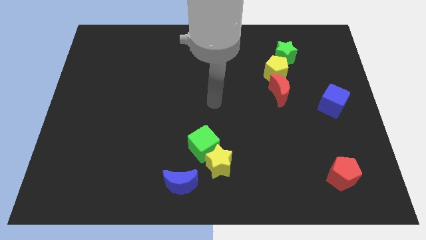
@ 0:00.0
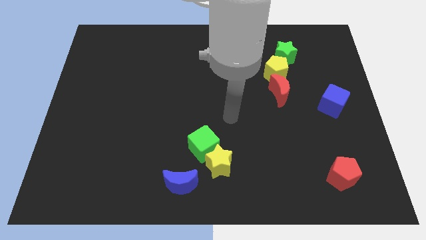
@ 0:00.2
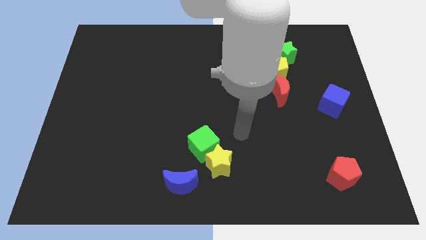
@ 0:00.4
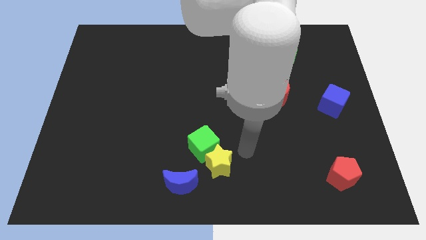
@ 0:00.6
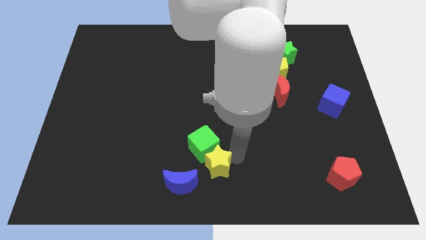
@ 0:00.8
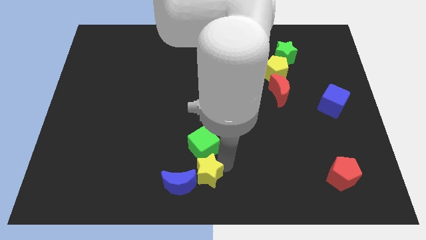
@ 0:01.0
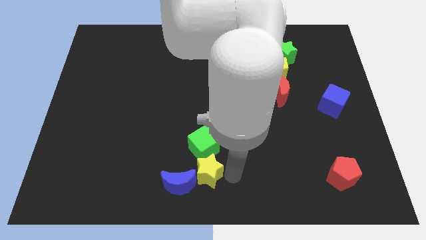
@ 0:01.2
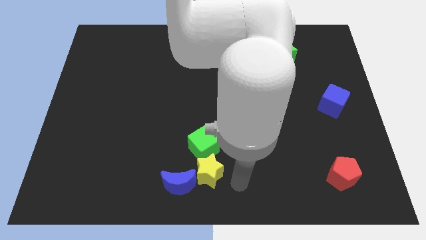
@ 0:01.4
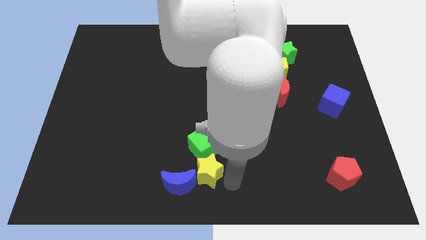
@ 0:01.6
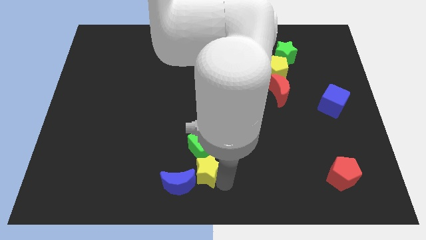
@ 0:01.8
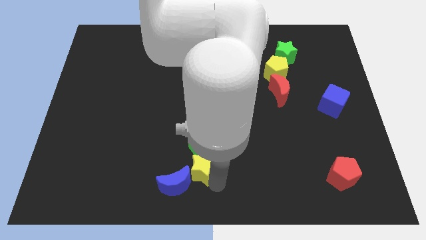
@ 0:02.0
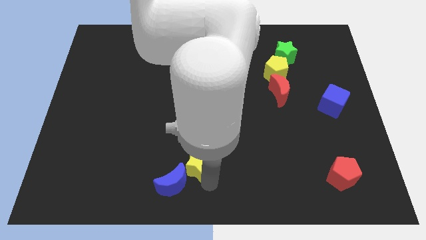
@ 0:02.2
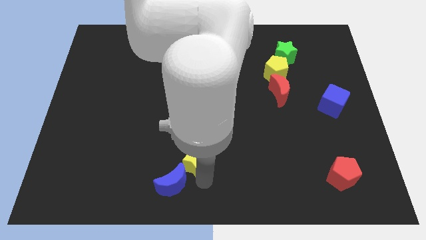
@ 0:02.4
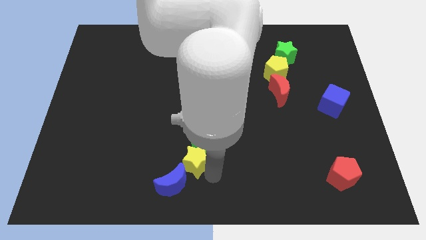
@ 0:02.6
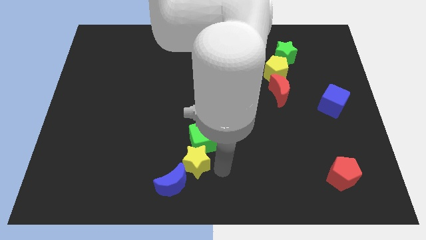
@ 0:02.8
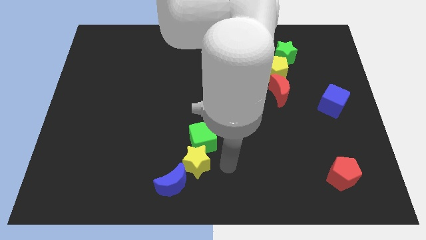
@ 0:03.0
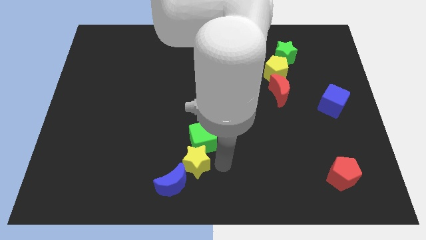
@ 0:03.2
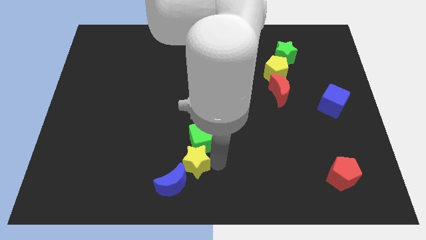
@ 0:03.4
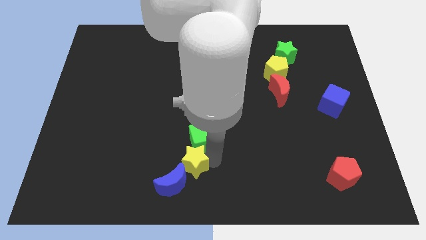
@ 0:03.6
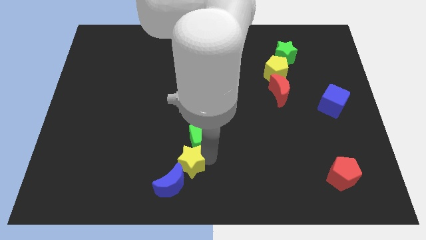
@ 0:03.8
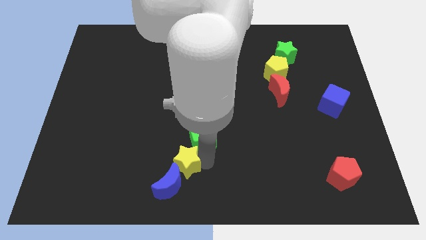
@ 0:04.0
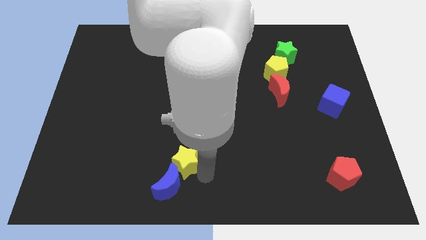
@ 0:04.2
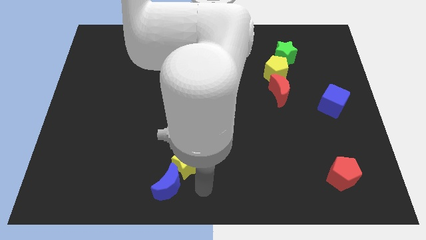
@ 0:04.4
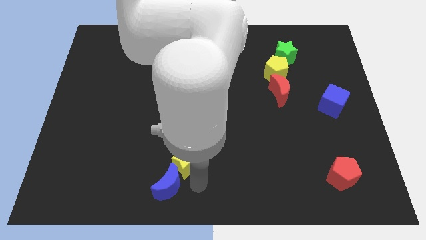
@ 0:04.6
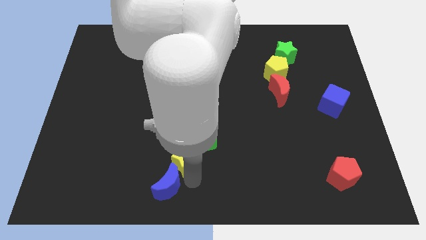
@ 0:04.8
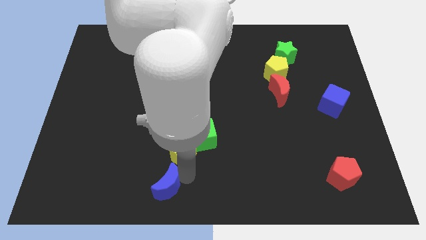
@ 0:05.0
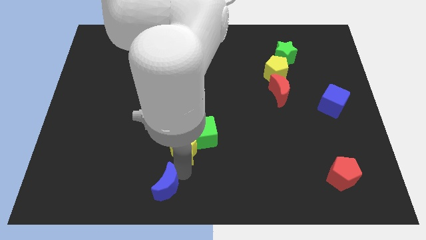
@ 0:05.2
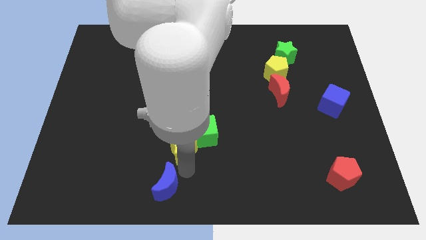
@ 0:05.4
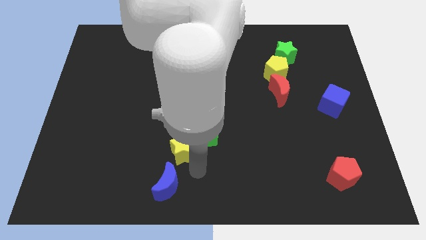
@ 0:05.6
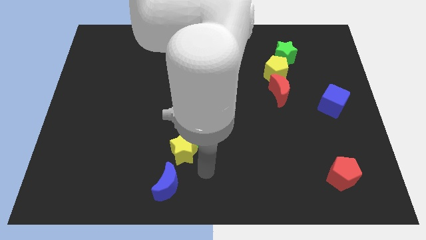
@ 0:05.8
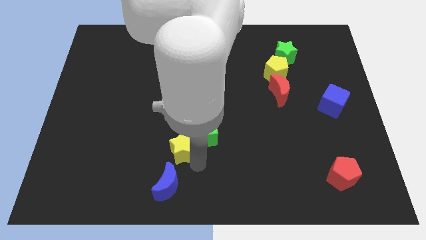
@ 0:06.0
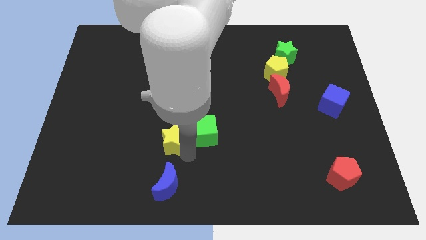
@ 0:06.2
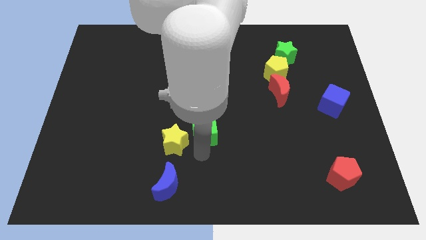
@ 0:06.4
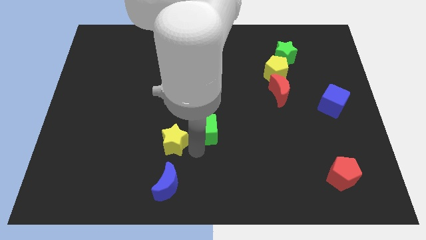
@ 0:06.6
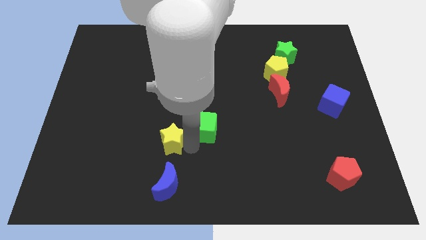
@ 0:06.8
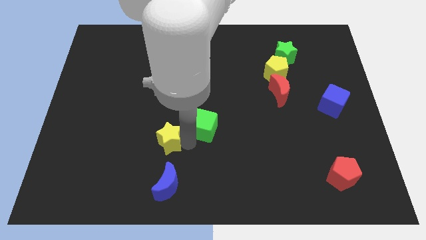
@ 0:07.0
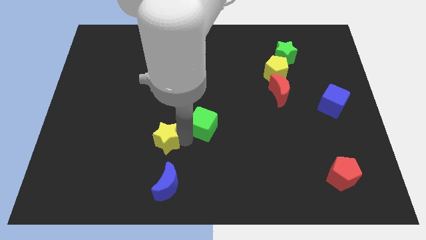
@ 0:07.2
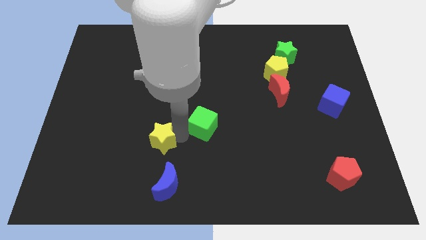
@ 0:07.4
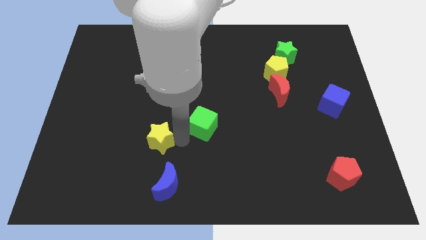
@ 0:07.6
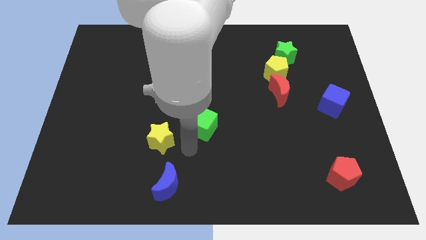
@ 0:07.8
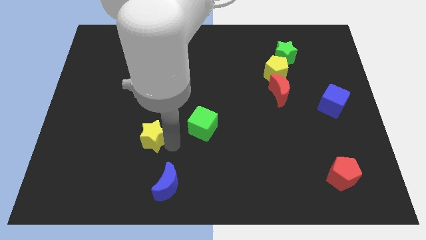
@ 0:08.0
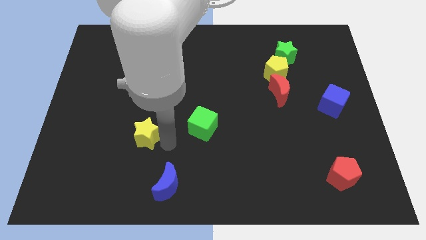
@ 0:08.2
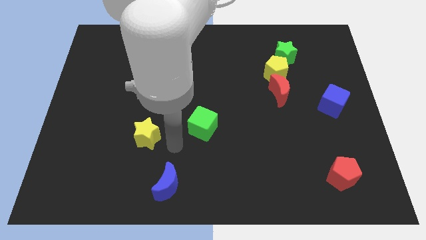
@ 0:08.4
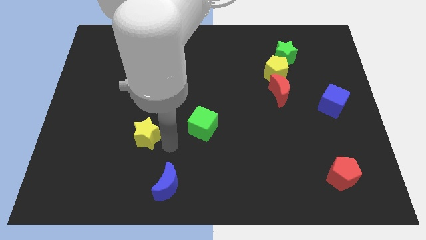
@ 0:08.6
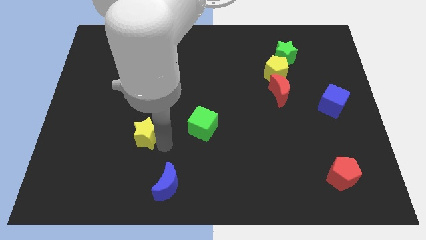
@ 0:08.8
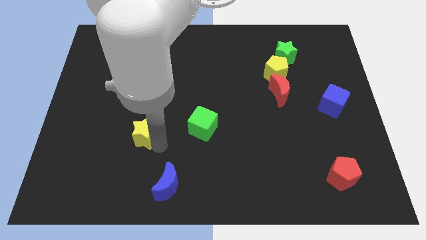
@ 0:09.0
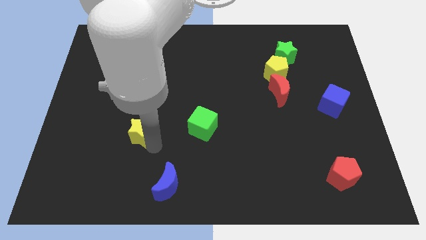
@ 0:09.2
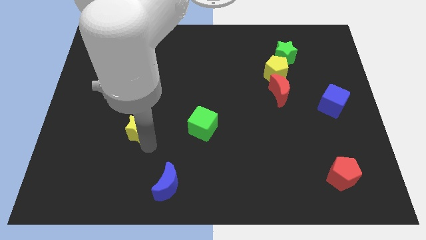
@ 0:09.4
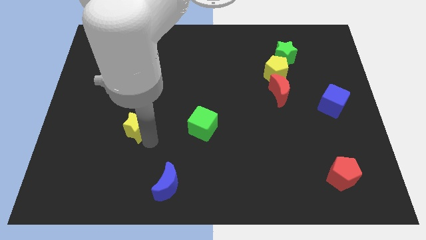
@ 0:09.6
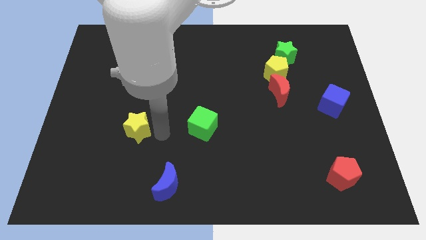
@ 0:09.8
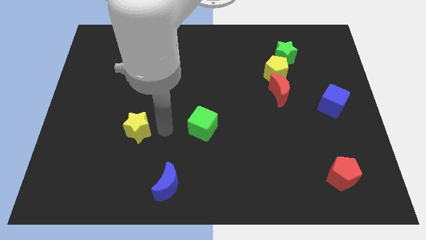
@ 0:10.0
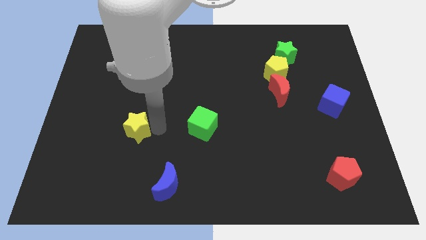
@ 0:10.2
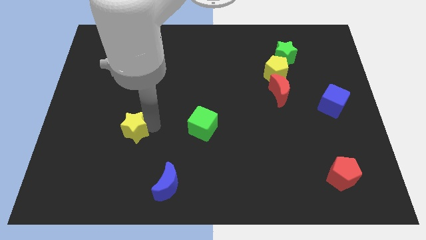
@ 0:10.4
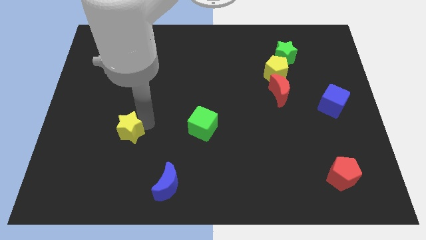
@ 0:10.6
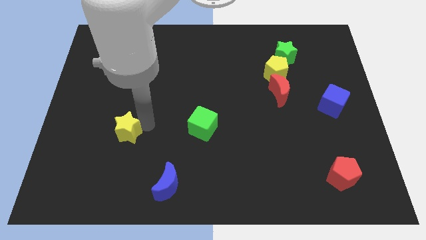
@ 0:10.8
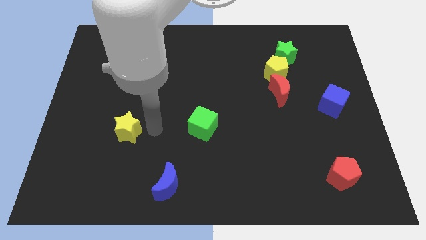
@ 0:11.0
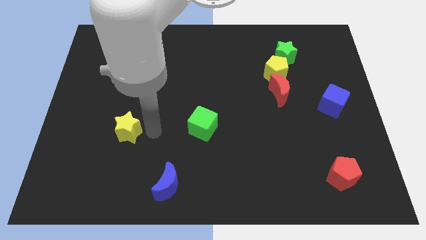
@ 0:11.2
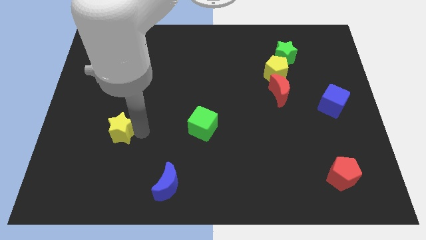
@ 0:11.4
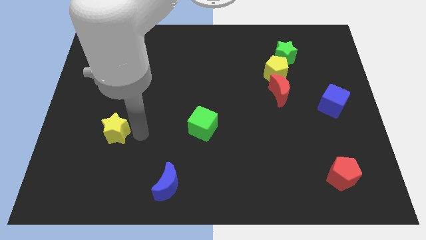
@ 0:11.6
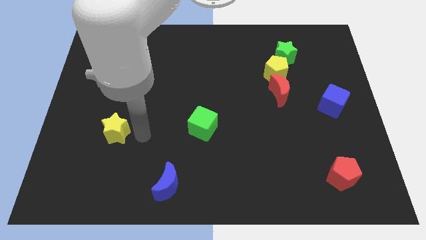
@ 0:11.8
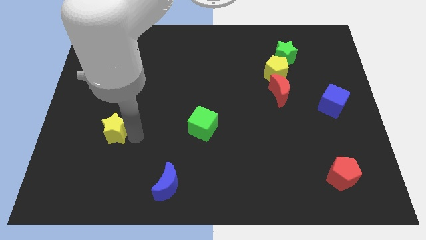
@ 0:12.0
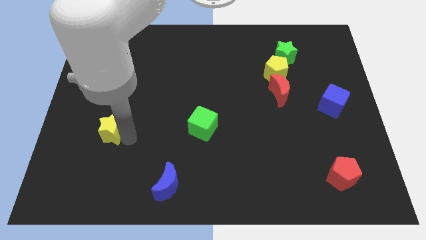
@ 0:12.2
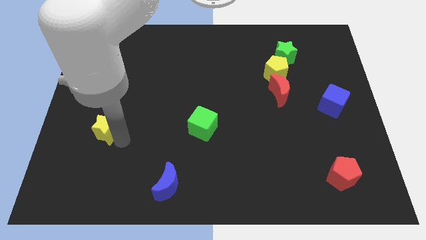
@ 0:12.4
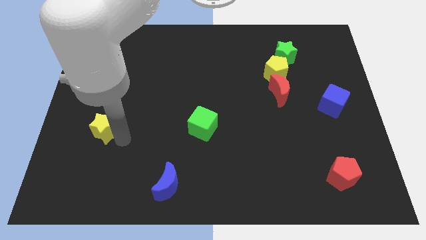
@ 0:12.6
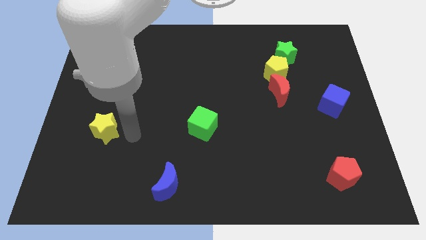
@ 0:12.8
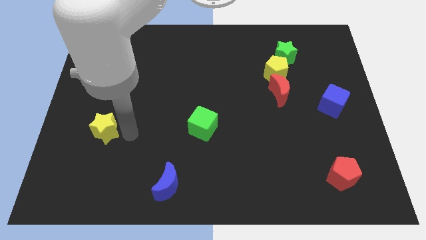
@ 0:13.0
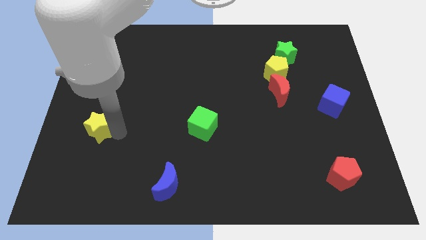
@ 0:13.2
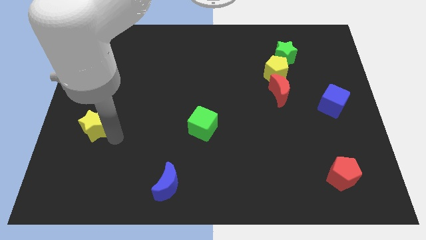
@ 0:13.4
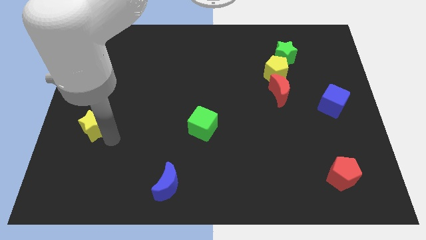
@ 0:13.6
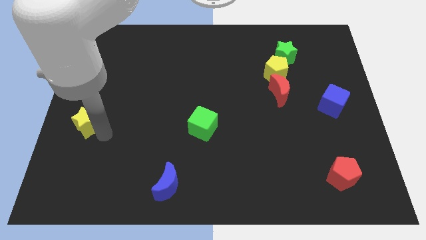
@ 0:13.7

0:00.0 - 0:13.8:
move the yellow star to the left side of the board
